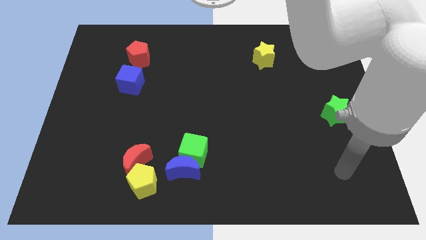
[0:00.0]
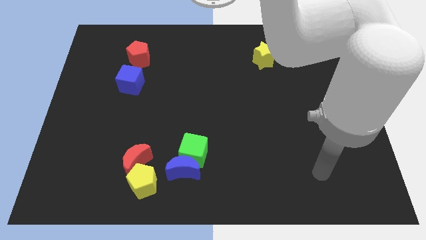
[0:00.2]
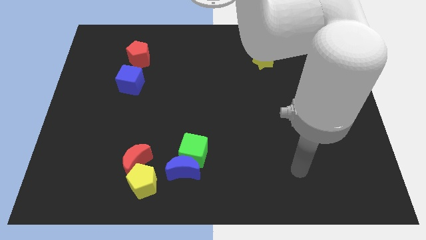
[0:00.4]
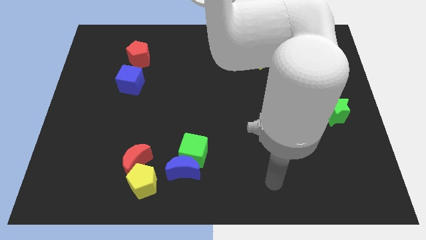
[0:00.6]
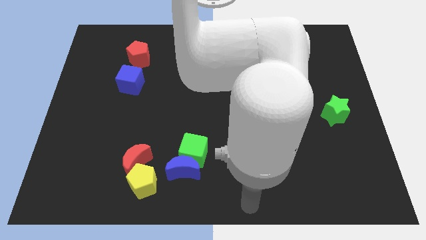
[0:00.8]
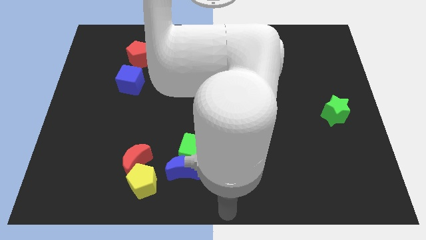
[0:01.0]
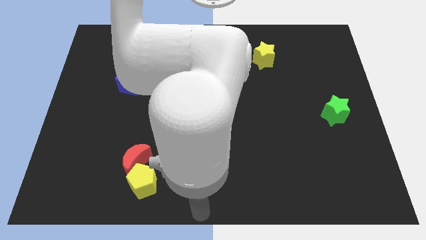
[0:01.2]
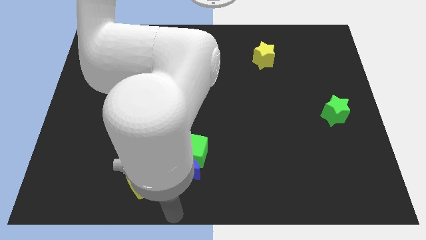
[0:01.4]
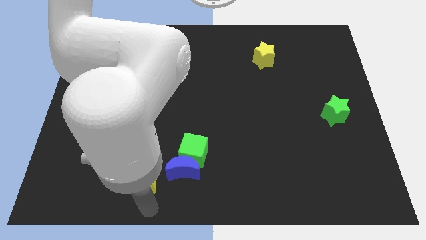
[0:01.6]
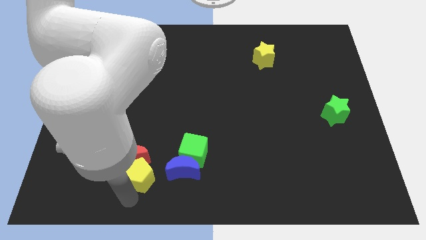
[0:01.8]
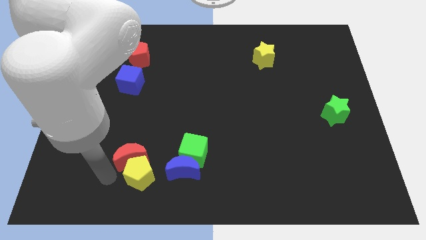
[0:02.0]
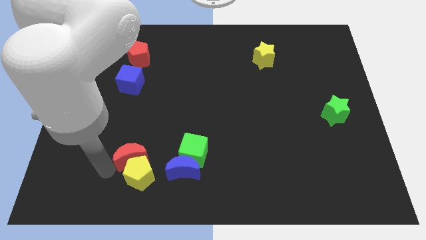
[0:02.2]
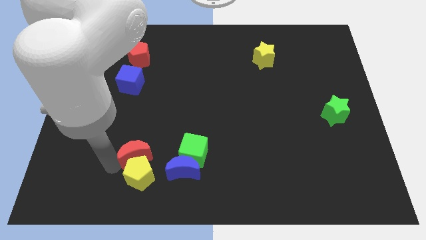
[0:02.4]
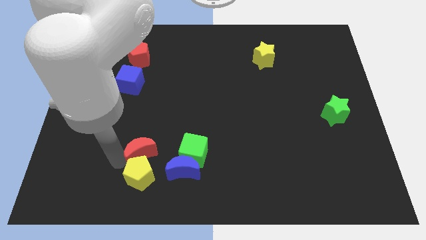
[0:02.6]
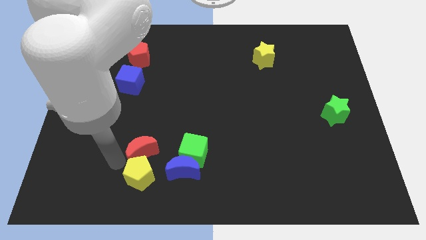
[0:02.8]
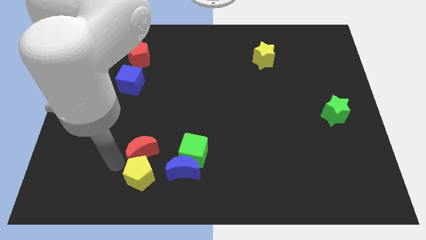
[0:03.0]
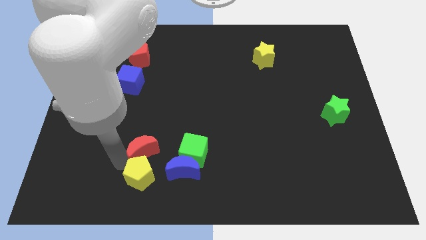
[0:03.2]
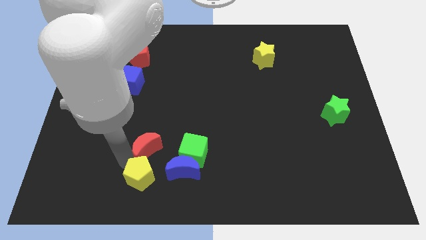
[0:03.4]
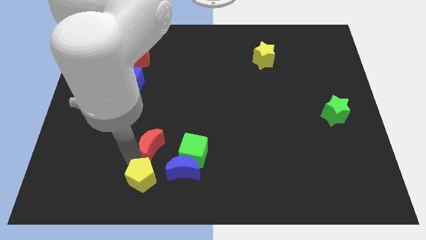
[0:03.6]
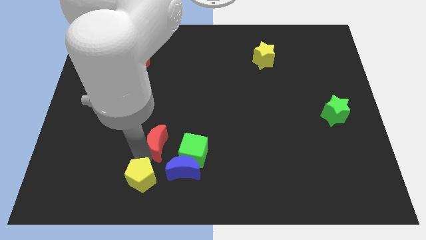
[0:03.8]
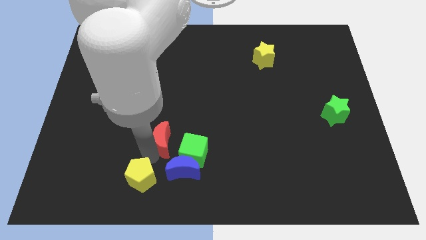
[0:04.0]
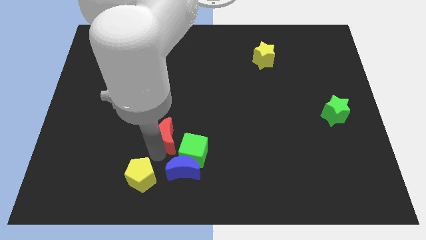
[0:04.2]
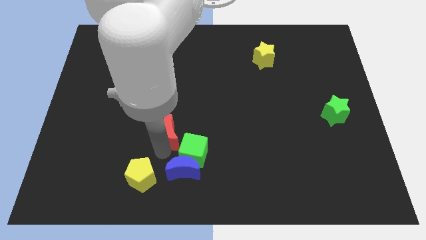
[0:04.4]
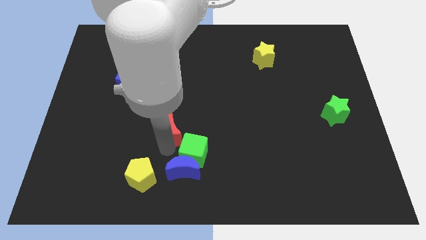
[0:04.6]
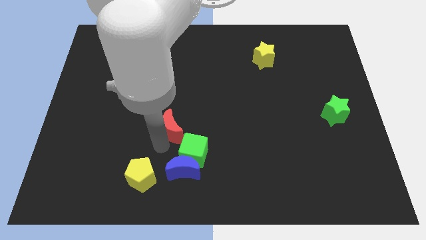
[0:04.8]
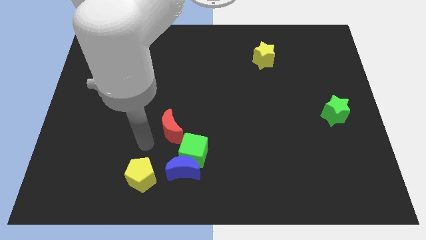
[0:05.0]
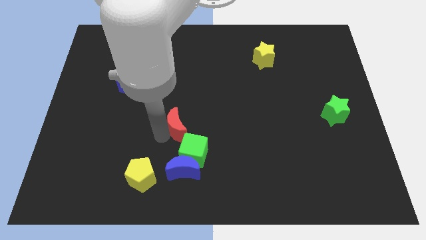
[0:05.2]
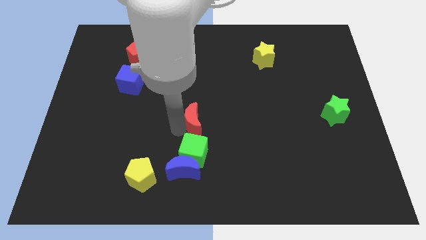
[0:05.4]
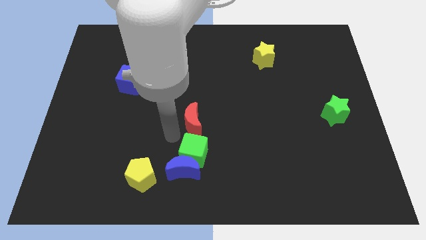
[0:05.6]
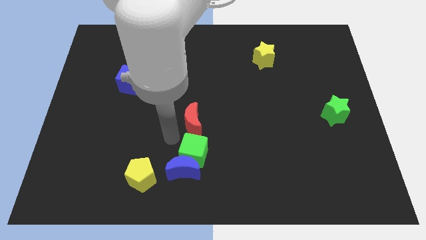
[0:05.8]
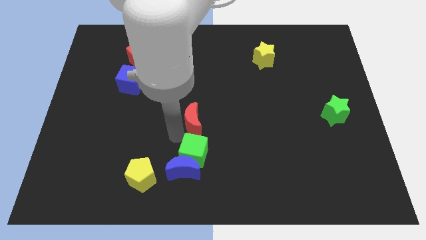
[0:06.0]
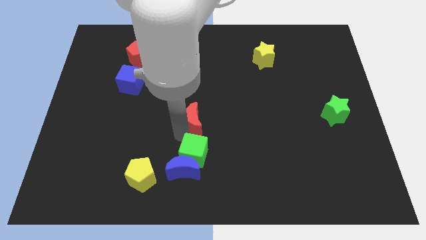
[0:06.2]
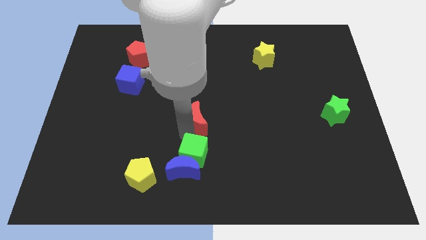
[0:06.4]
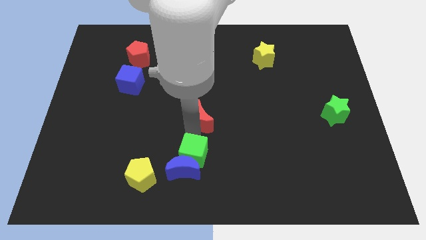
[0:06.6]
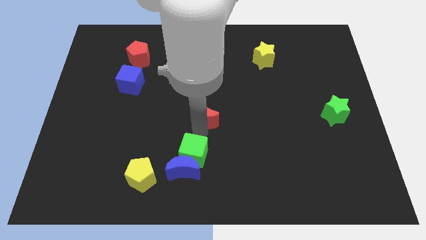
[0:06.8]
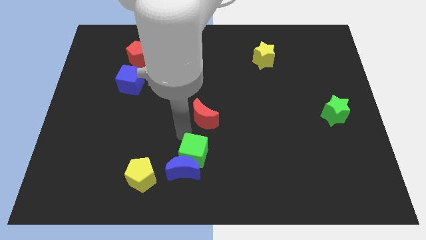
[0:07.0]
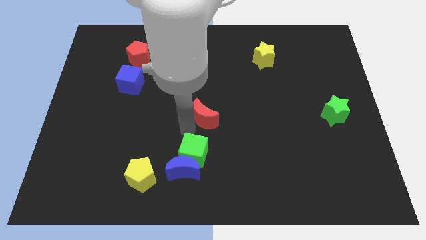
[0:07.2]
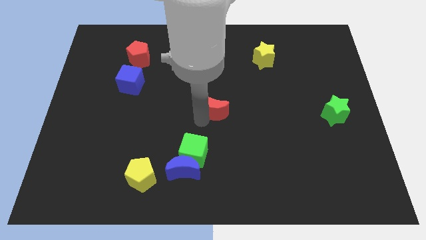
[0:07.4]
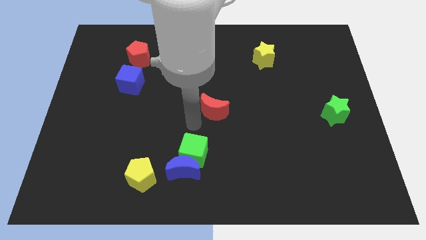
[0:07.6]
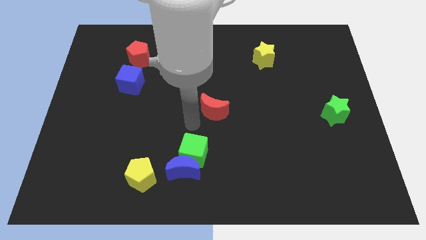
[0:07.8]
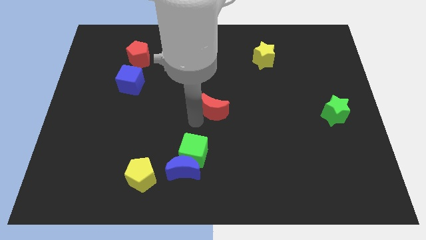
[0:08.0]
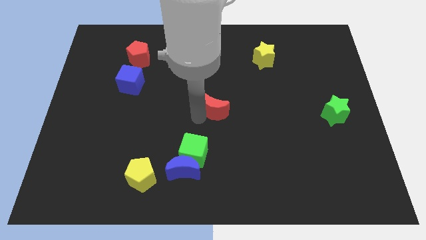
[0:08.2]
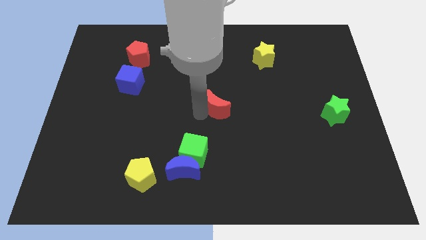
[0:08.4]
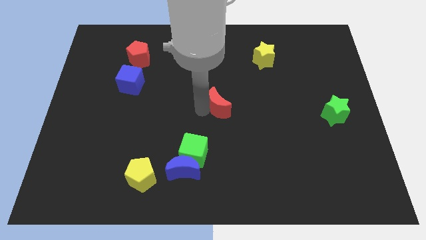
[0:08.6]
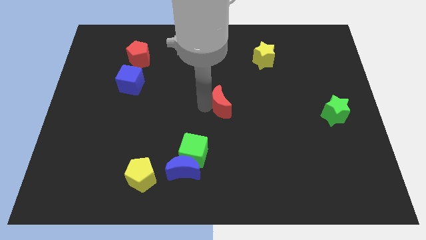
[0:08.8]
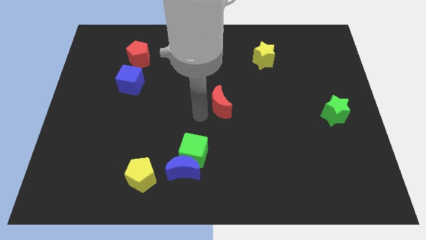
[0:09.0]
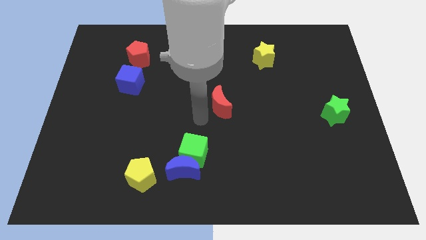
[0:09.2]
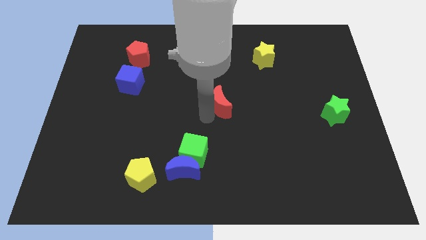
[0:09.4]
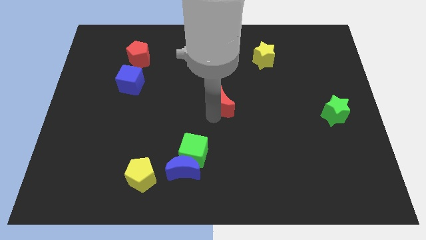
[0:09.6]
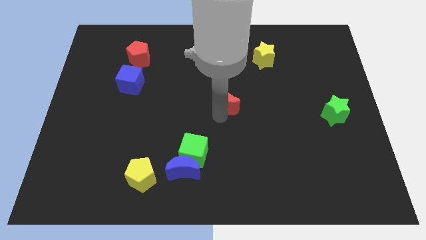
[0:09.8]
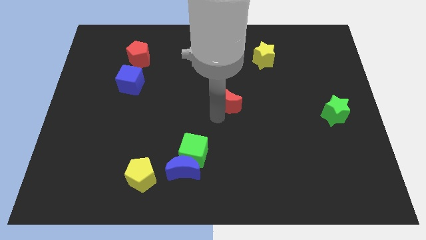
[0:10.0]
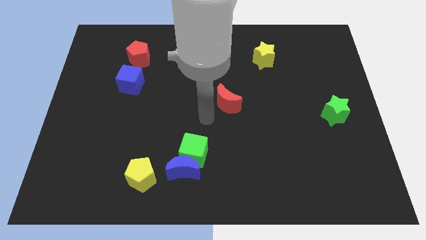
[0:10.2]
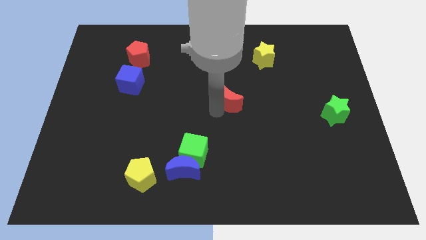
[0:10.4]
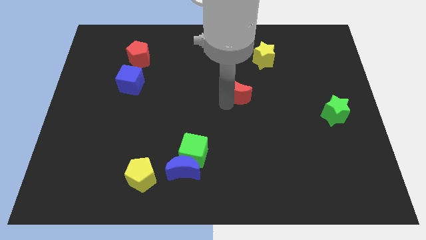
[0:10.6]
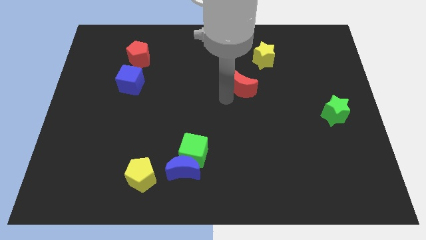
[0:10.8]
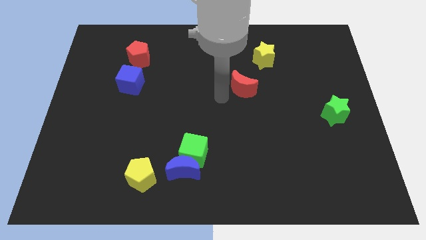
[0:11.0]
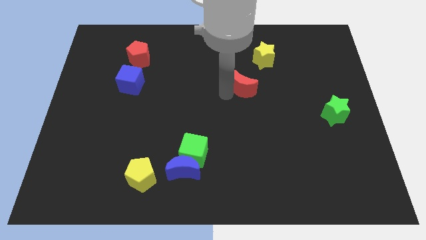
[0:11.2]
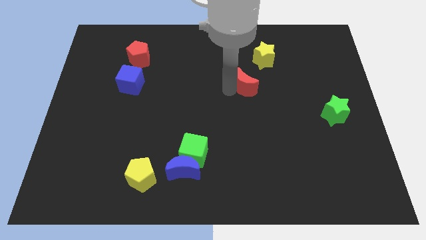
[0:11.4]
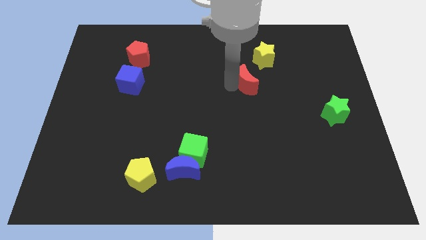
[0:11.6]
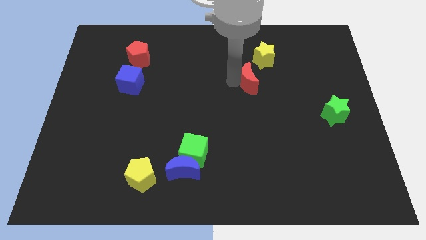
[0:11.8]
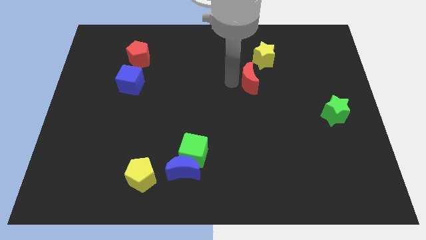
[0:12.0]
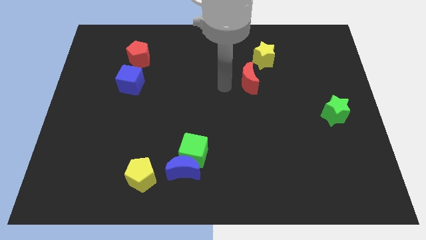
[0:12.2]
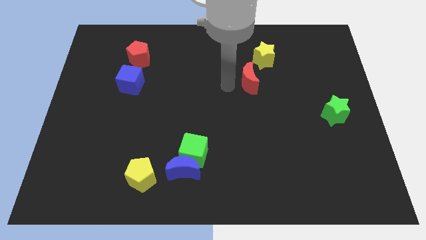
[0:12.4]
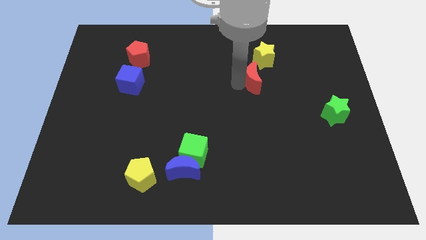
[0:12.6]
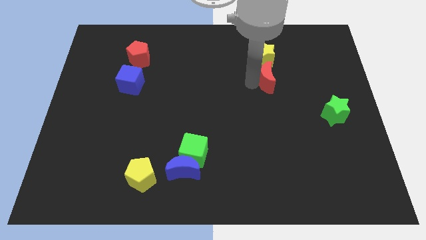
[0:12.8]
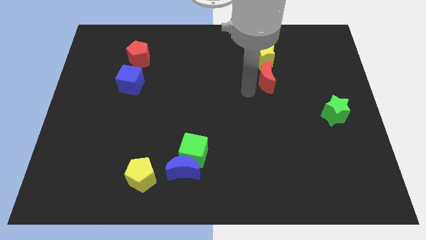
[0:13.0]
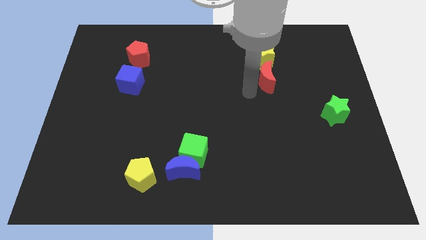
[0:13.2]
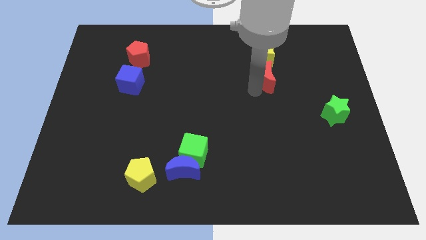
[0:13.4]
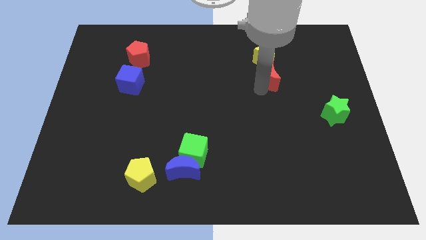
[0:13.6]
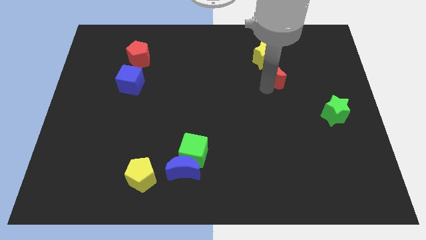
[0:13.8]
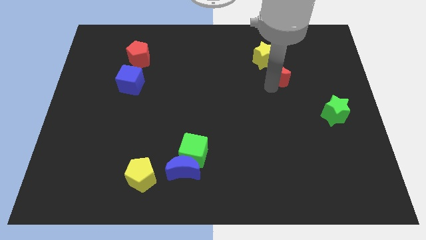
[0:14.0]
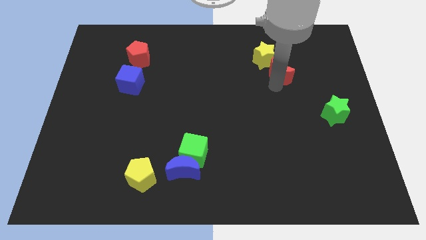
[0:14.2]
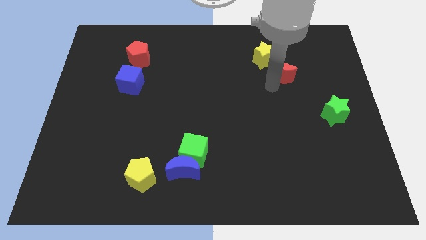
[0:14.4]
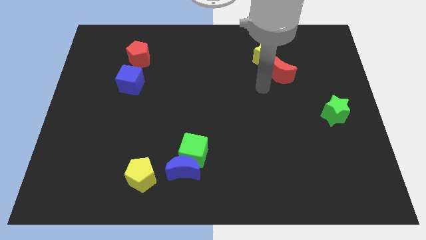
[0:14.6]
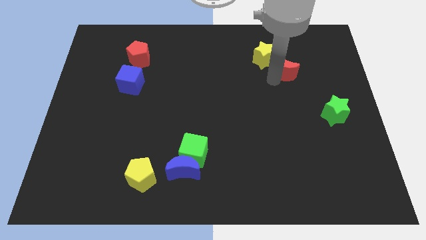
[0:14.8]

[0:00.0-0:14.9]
move the red moon right of the yellow star
